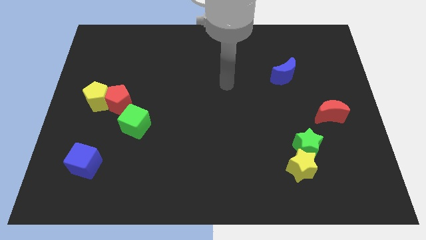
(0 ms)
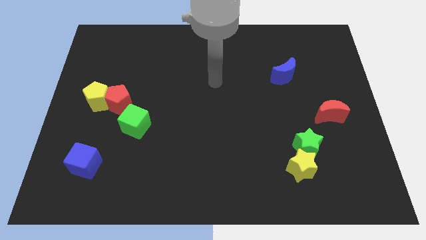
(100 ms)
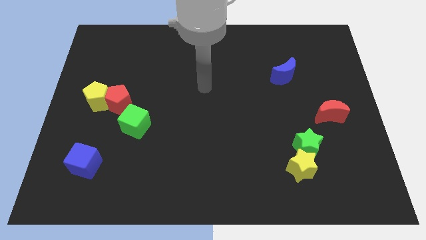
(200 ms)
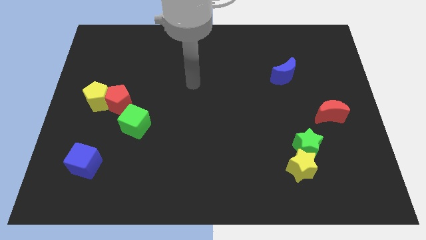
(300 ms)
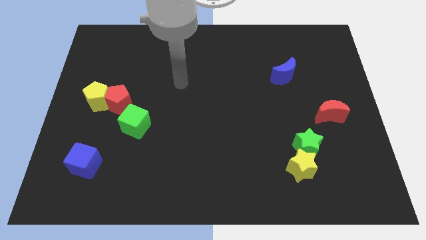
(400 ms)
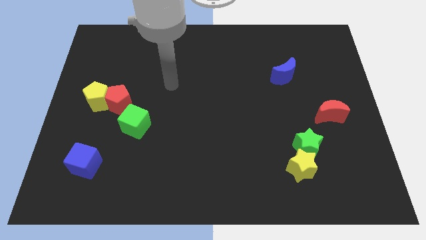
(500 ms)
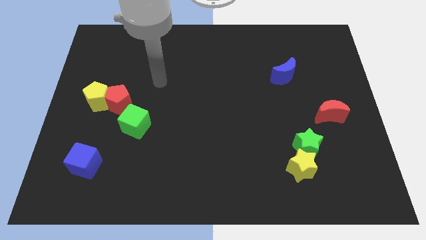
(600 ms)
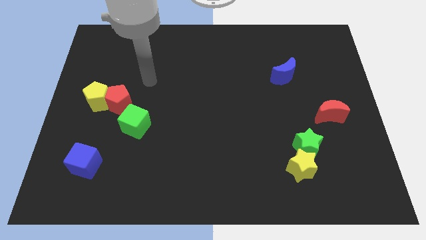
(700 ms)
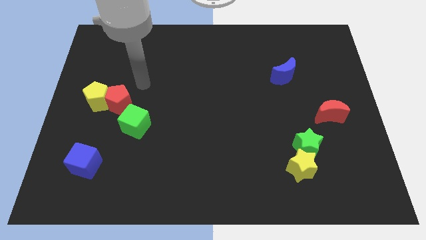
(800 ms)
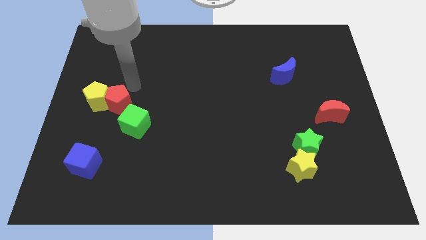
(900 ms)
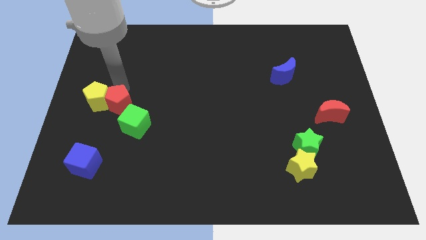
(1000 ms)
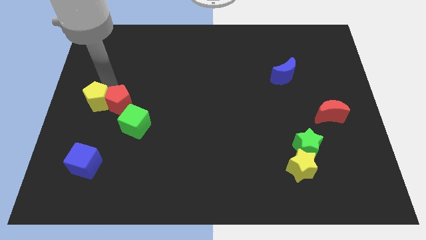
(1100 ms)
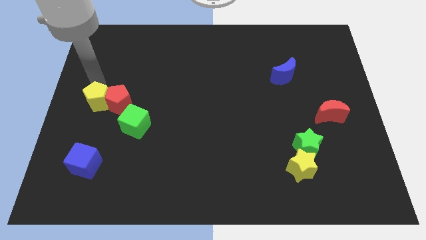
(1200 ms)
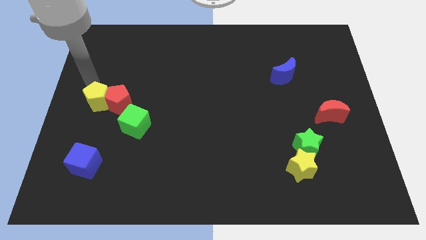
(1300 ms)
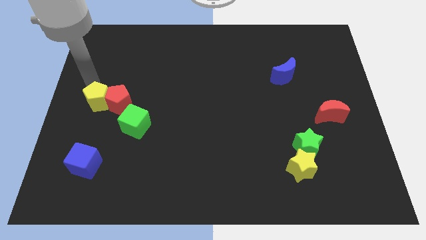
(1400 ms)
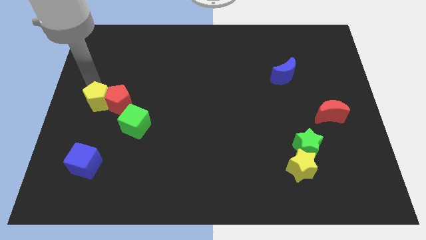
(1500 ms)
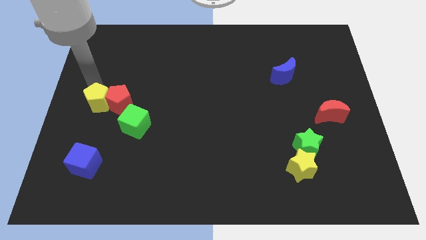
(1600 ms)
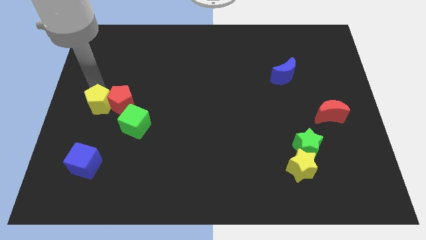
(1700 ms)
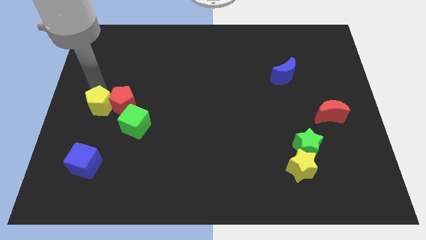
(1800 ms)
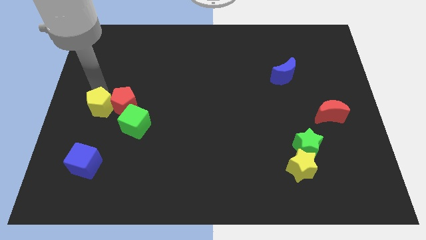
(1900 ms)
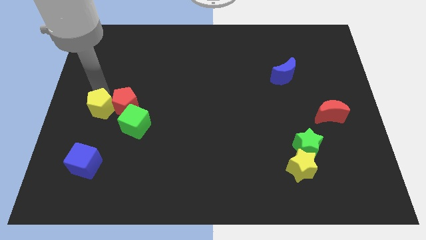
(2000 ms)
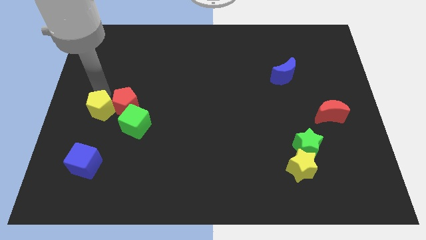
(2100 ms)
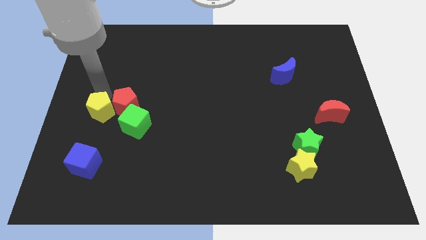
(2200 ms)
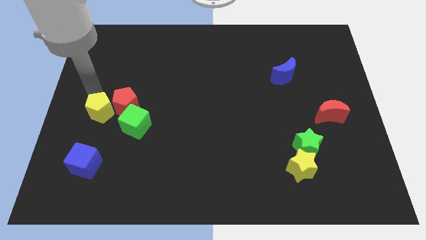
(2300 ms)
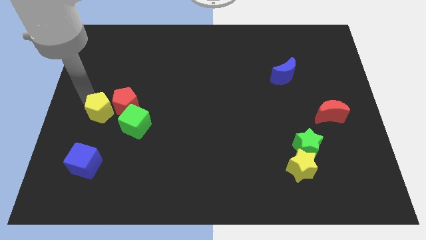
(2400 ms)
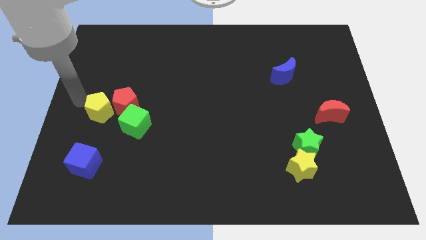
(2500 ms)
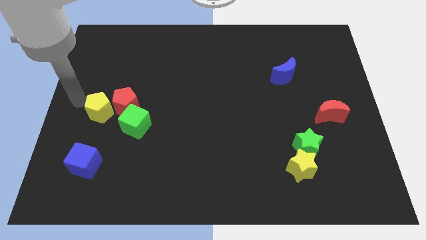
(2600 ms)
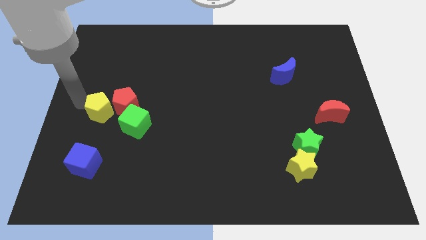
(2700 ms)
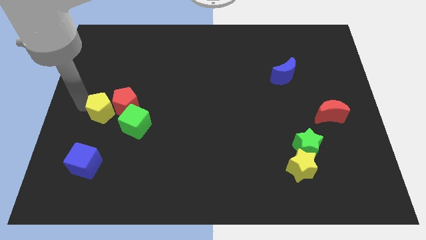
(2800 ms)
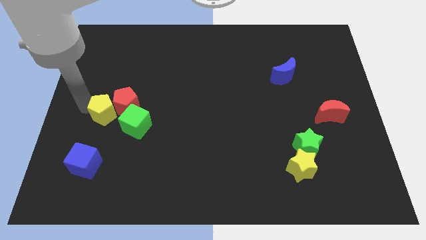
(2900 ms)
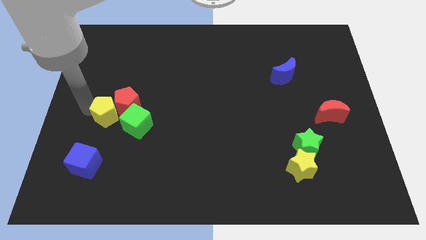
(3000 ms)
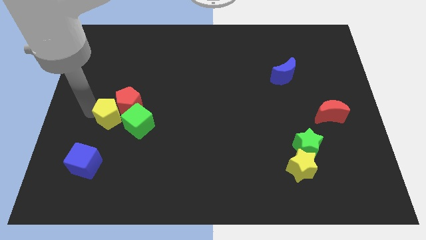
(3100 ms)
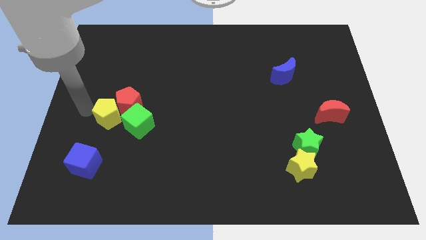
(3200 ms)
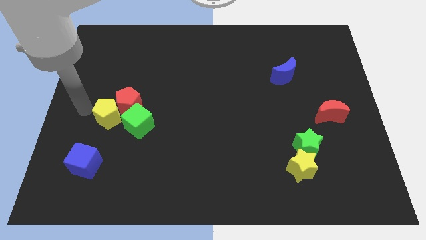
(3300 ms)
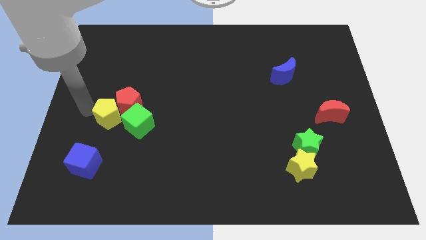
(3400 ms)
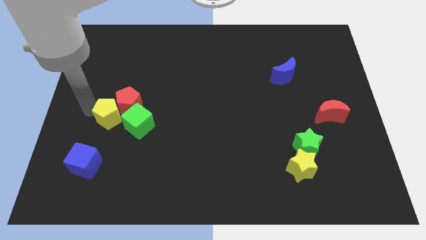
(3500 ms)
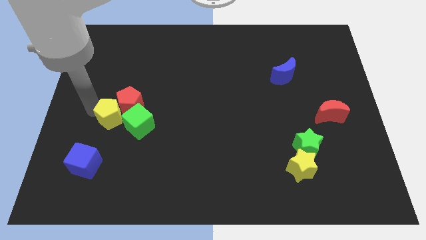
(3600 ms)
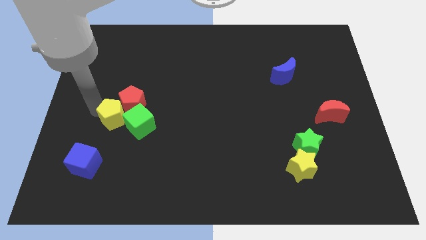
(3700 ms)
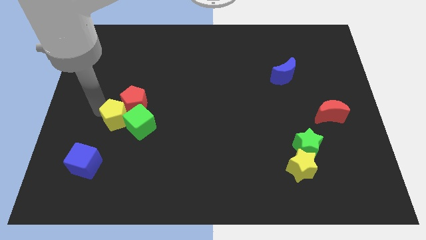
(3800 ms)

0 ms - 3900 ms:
move the yellow pentagon towards the green cube

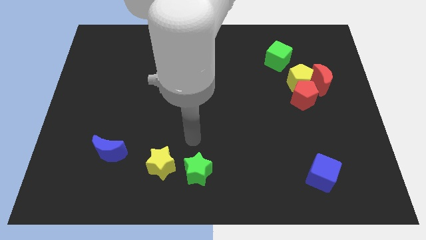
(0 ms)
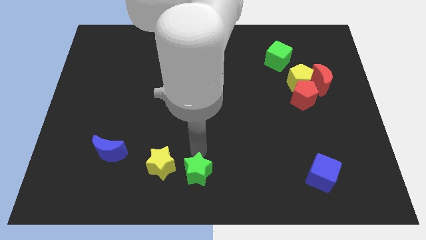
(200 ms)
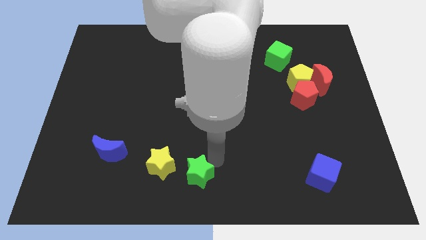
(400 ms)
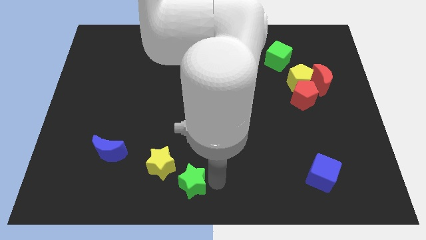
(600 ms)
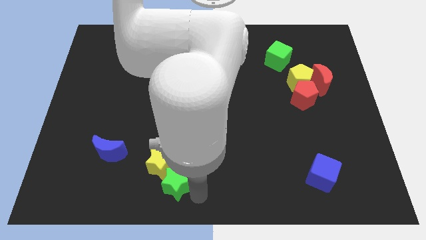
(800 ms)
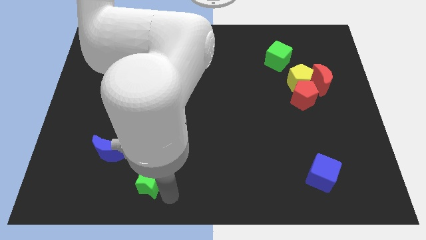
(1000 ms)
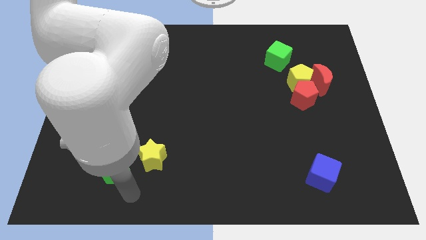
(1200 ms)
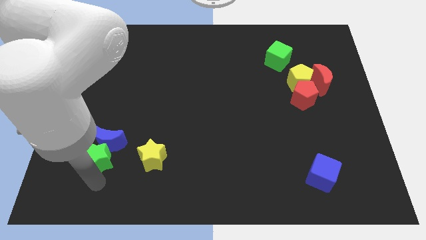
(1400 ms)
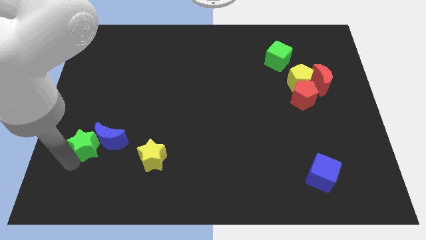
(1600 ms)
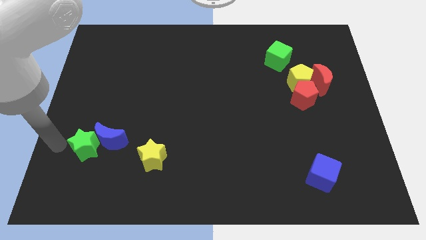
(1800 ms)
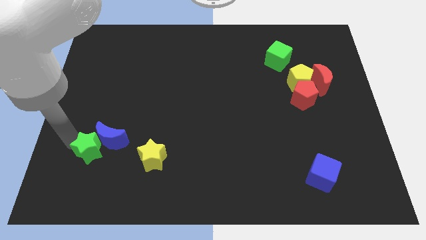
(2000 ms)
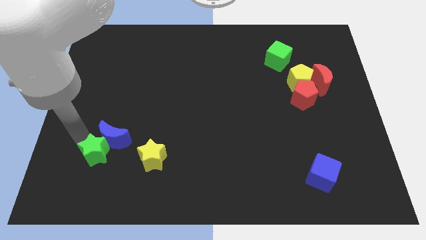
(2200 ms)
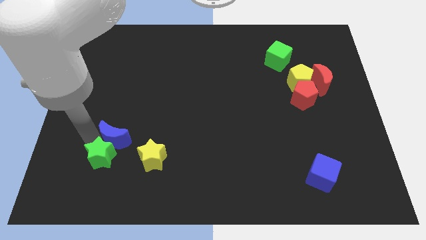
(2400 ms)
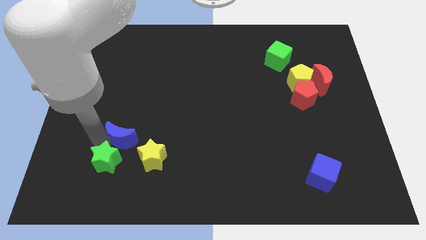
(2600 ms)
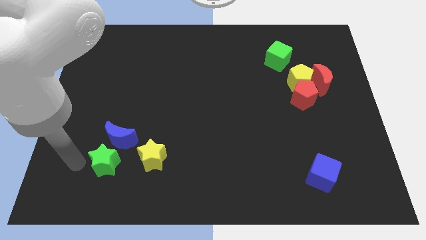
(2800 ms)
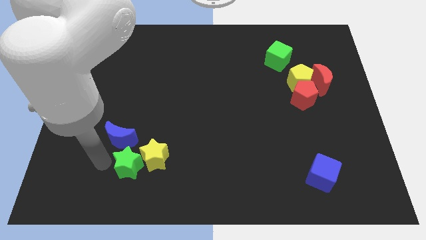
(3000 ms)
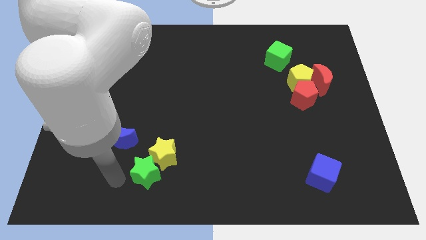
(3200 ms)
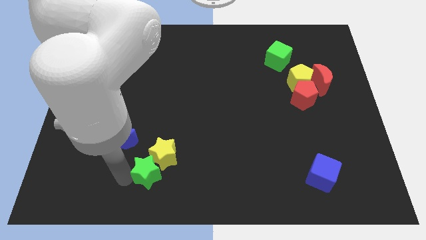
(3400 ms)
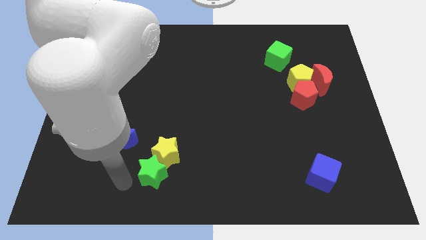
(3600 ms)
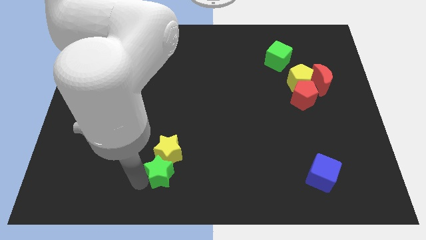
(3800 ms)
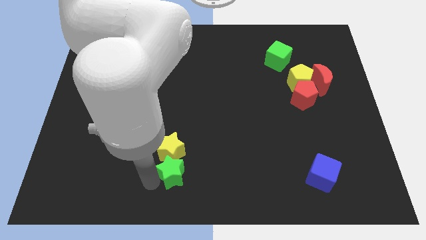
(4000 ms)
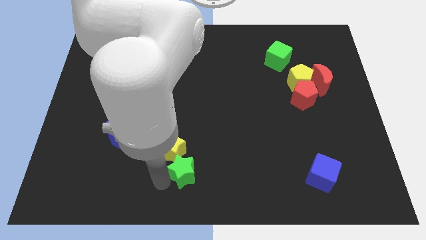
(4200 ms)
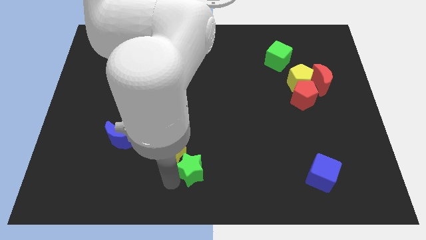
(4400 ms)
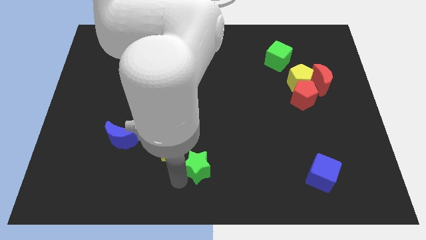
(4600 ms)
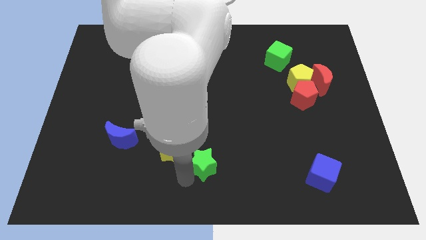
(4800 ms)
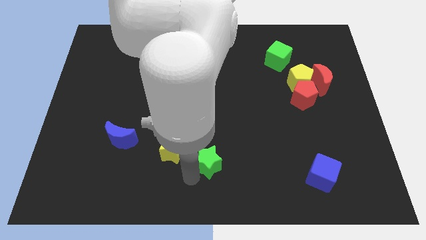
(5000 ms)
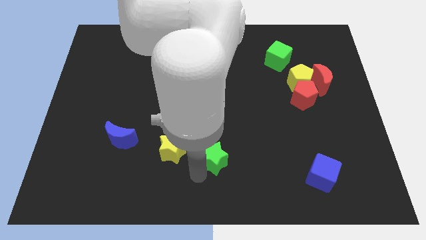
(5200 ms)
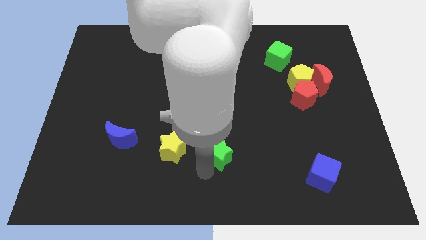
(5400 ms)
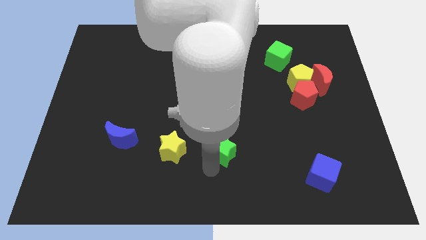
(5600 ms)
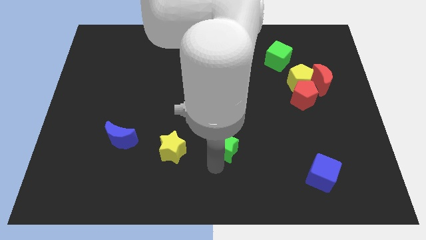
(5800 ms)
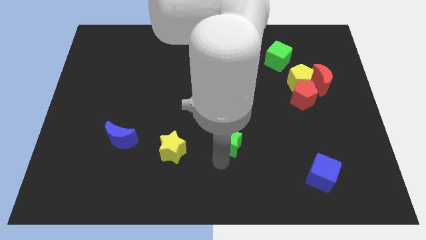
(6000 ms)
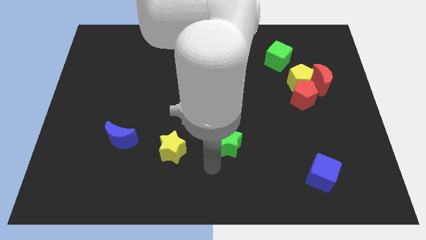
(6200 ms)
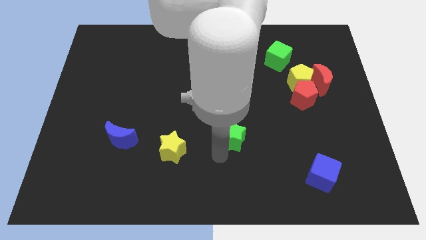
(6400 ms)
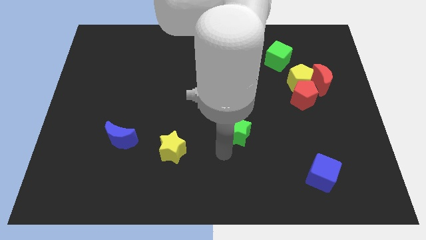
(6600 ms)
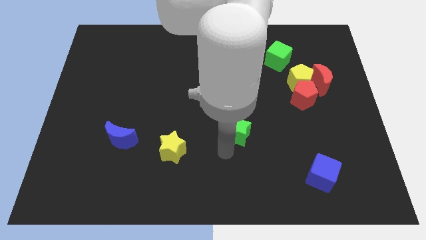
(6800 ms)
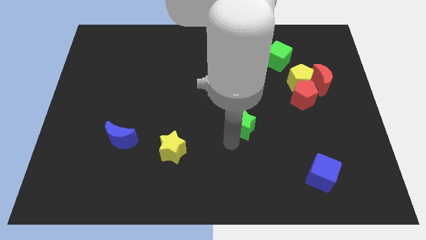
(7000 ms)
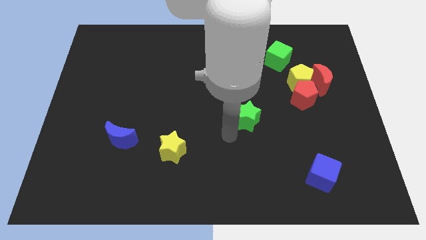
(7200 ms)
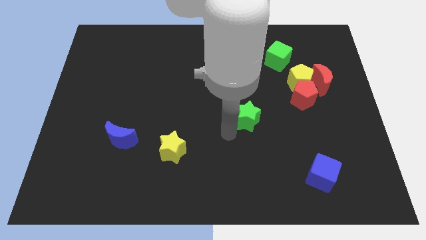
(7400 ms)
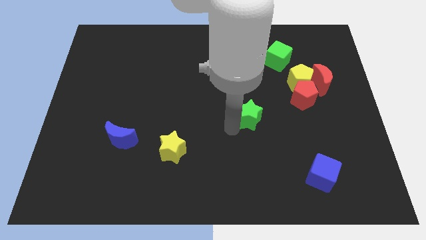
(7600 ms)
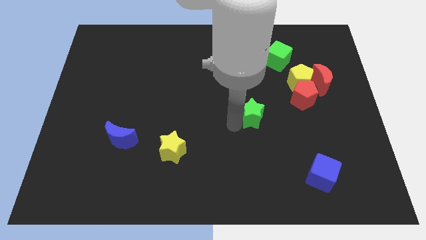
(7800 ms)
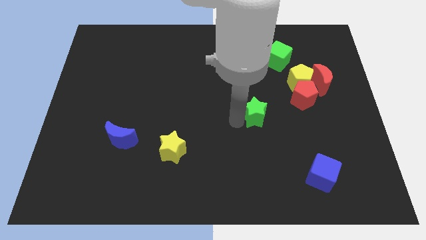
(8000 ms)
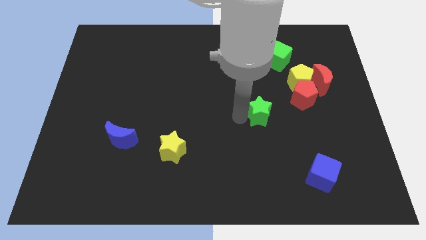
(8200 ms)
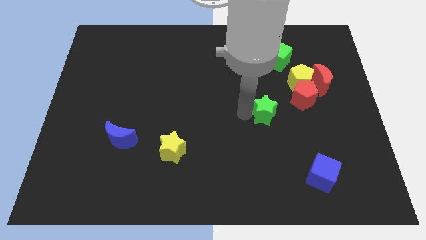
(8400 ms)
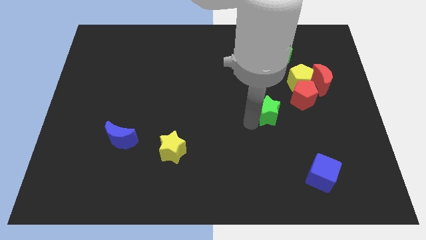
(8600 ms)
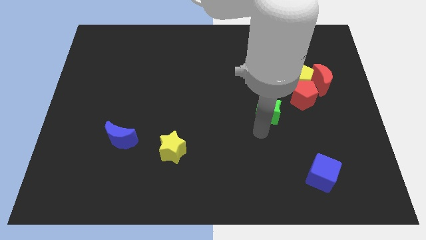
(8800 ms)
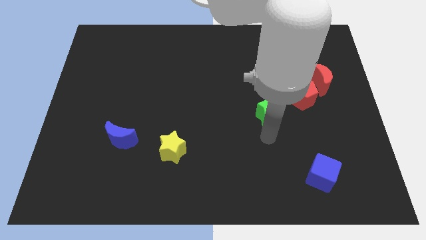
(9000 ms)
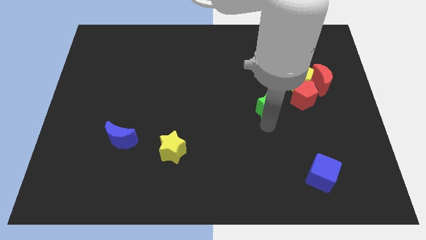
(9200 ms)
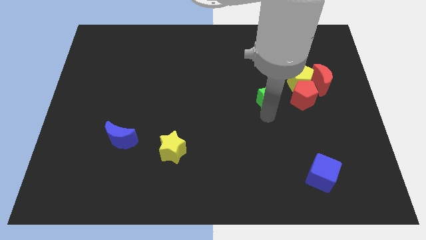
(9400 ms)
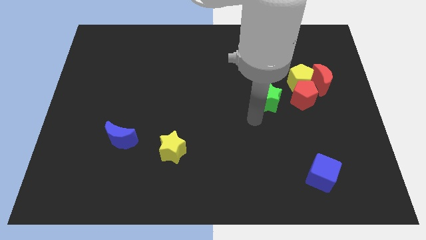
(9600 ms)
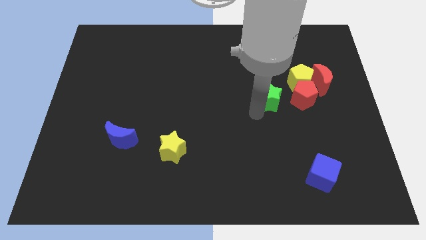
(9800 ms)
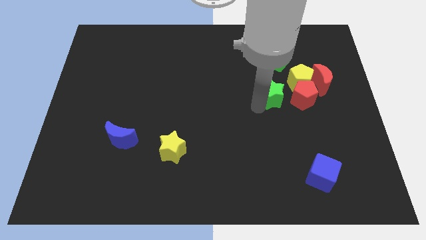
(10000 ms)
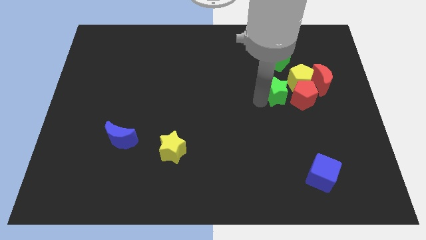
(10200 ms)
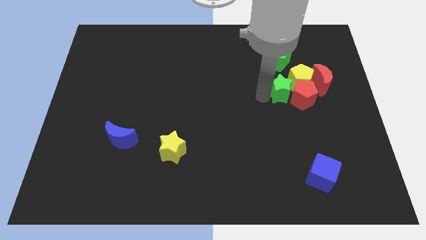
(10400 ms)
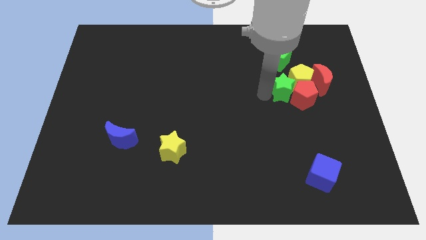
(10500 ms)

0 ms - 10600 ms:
slide the green star close to the yellow pentagon
